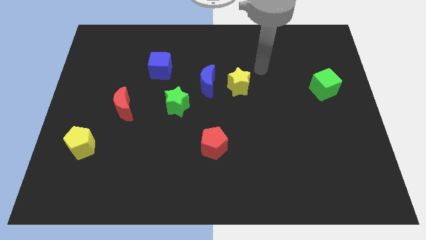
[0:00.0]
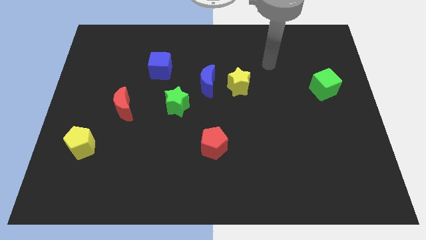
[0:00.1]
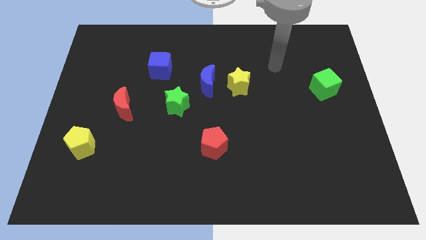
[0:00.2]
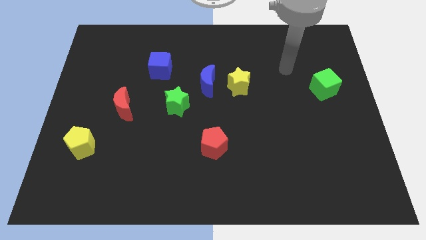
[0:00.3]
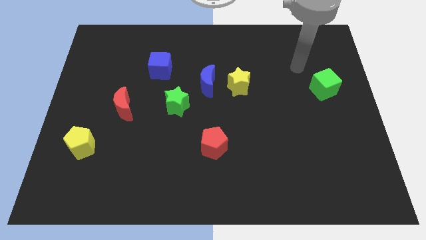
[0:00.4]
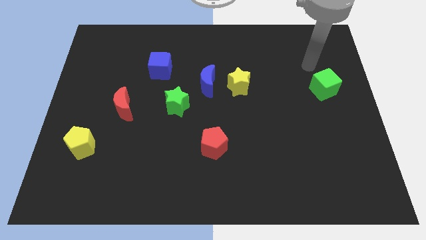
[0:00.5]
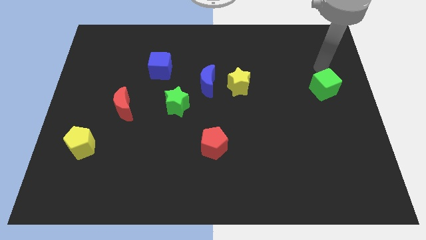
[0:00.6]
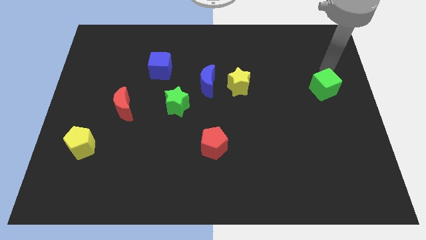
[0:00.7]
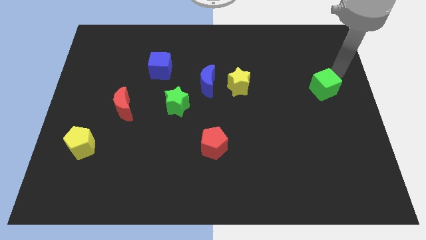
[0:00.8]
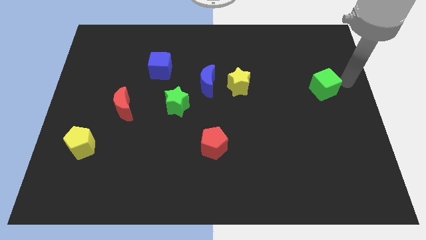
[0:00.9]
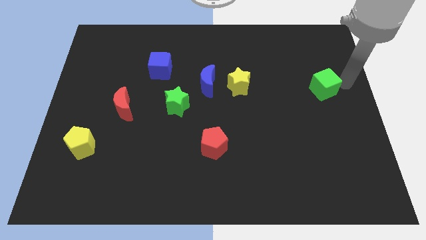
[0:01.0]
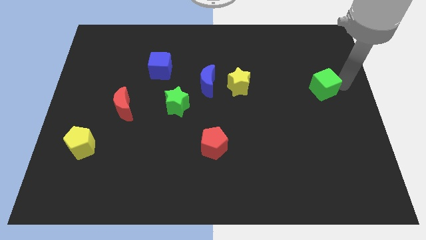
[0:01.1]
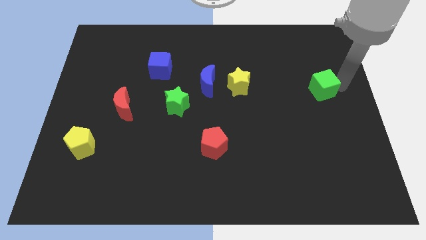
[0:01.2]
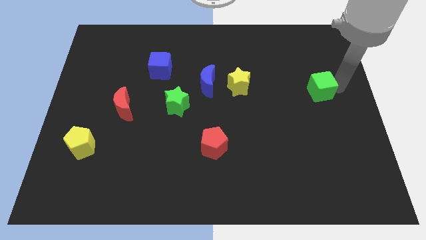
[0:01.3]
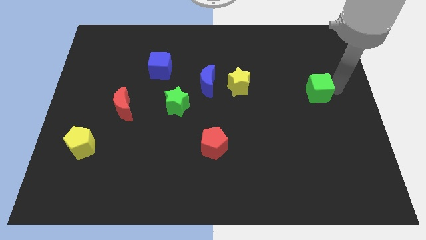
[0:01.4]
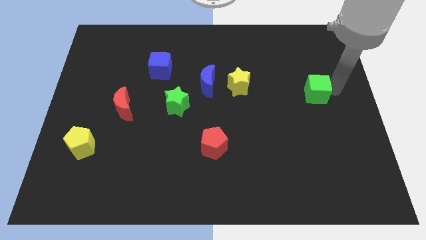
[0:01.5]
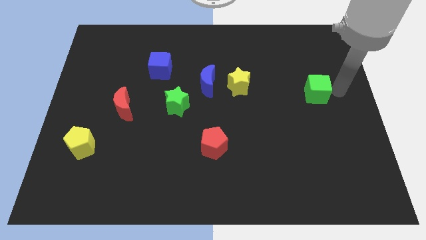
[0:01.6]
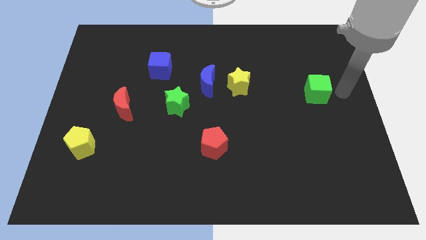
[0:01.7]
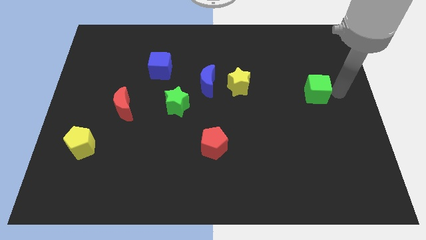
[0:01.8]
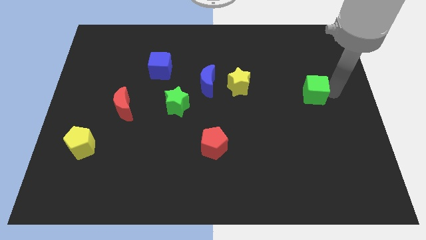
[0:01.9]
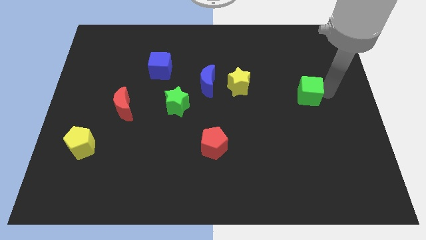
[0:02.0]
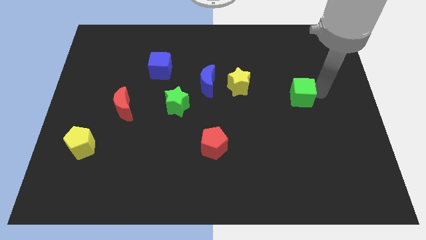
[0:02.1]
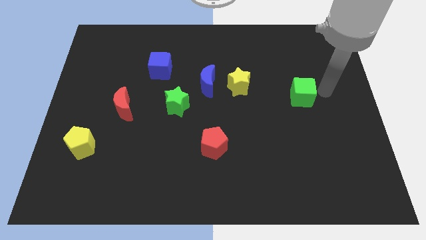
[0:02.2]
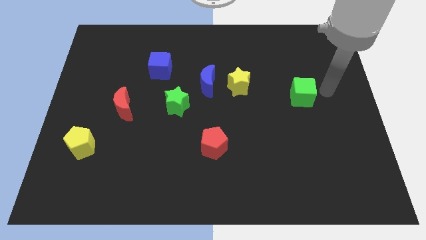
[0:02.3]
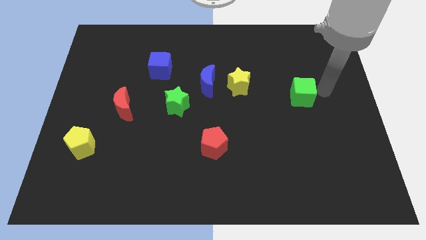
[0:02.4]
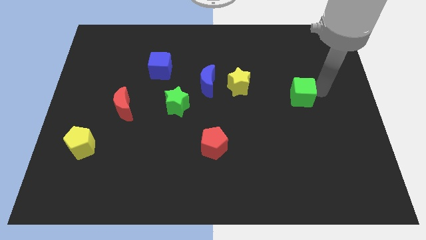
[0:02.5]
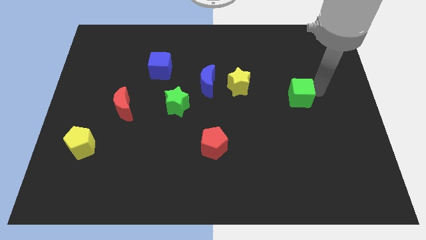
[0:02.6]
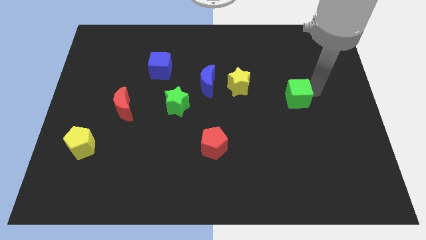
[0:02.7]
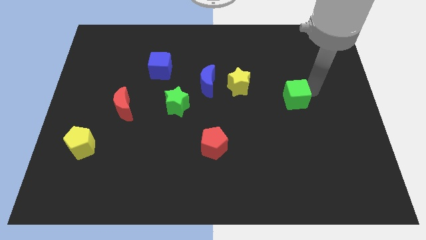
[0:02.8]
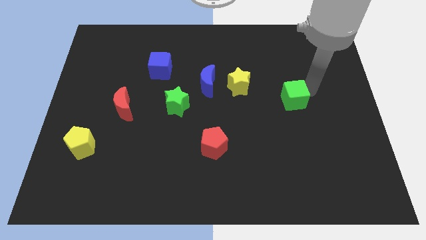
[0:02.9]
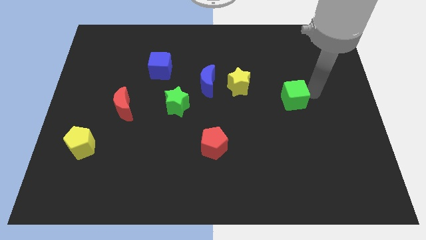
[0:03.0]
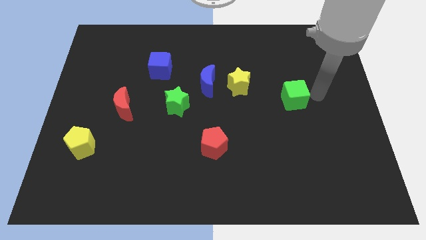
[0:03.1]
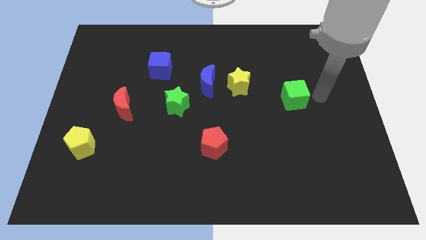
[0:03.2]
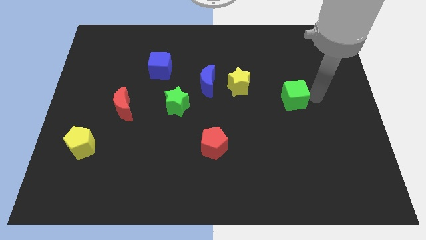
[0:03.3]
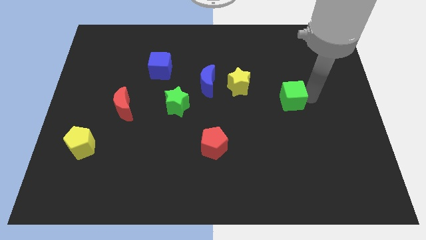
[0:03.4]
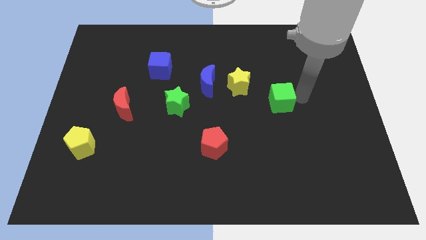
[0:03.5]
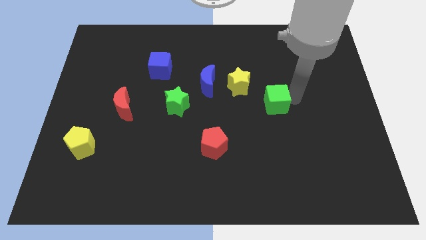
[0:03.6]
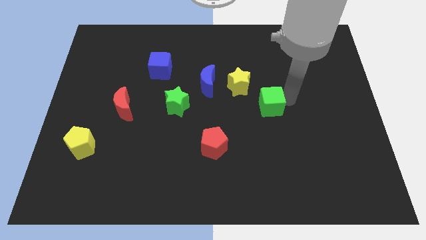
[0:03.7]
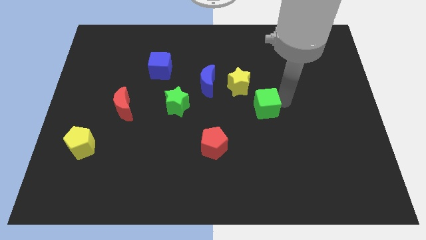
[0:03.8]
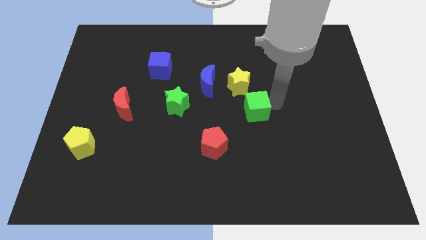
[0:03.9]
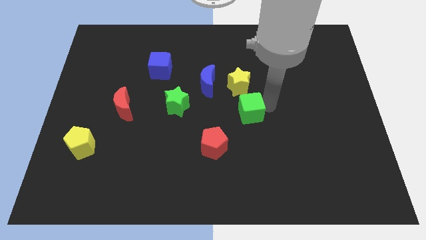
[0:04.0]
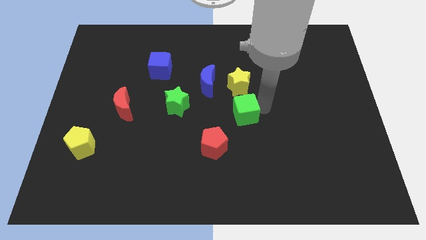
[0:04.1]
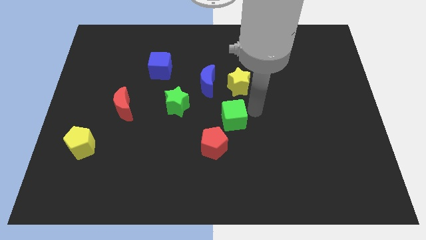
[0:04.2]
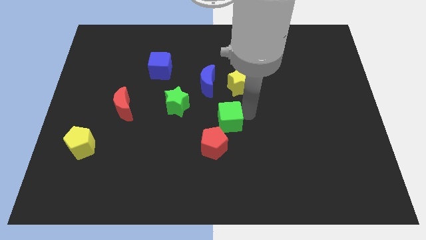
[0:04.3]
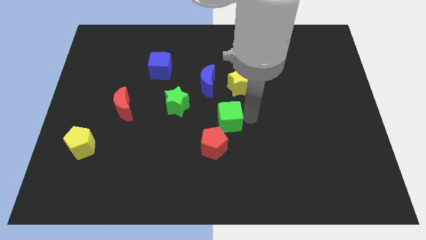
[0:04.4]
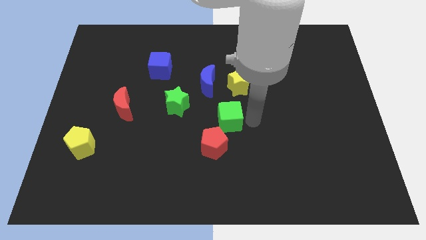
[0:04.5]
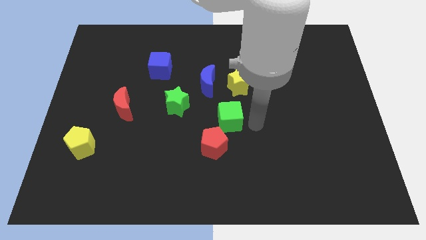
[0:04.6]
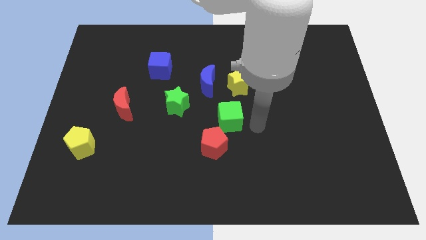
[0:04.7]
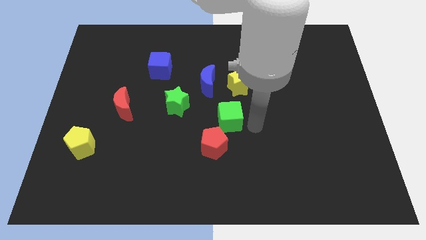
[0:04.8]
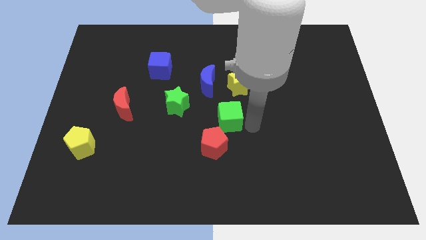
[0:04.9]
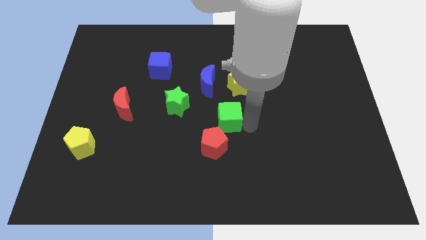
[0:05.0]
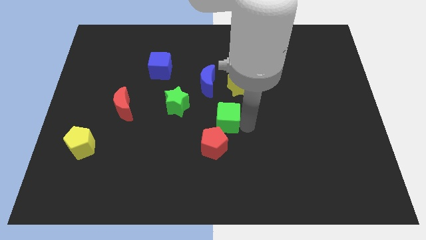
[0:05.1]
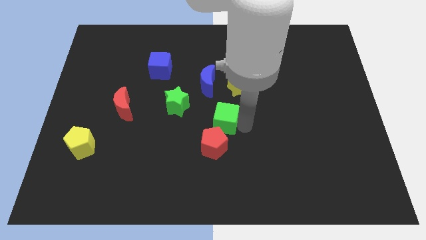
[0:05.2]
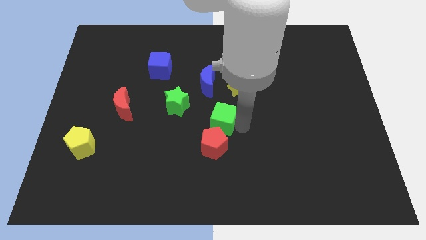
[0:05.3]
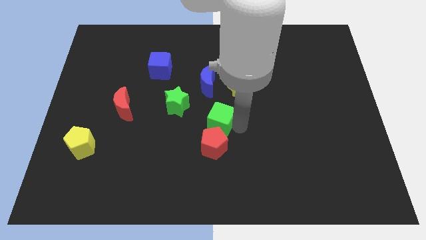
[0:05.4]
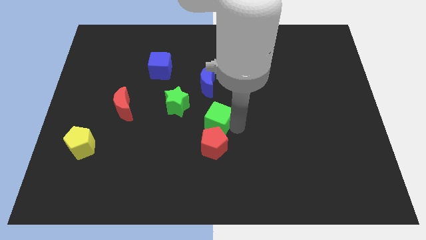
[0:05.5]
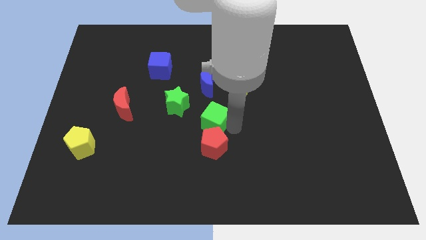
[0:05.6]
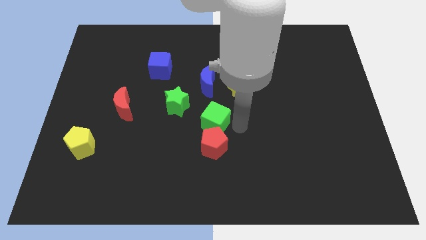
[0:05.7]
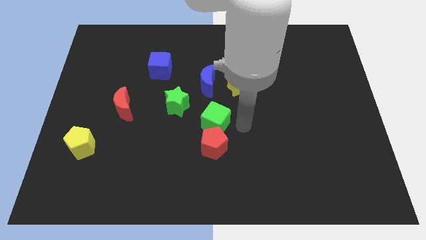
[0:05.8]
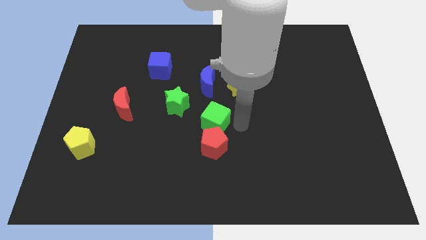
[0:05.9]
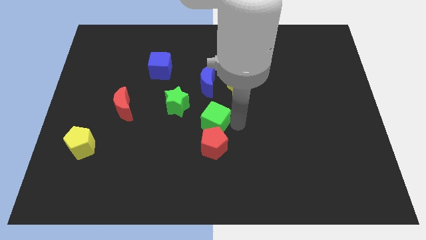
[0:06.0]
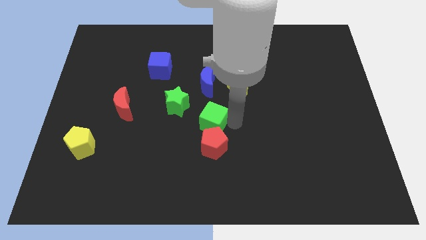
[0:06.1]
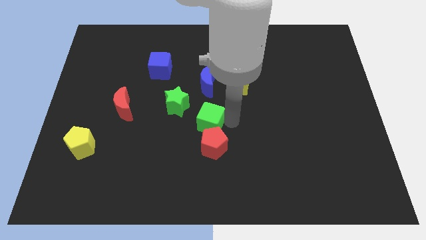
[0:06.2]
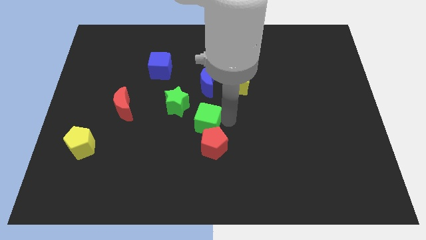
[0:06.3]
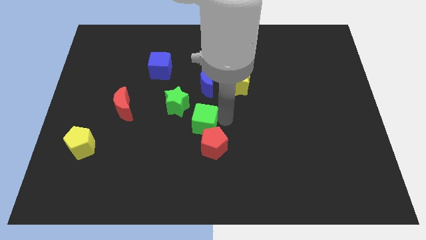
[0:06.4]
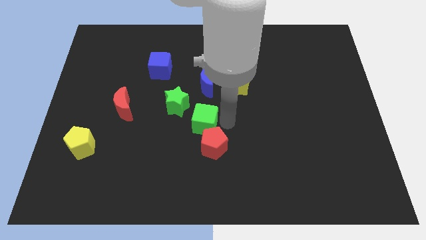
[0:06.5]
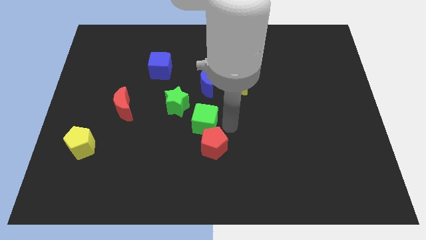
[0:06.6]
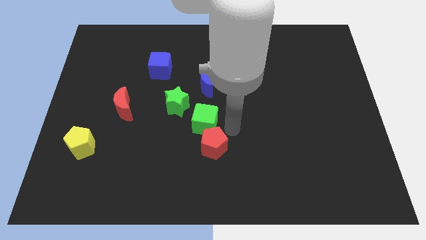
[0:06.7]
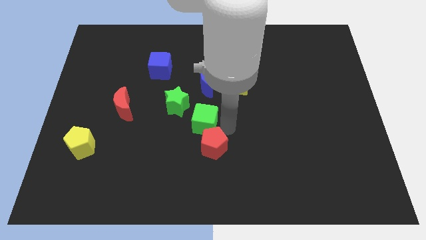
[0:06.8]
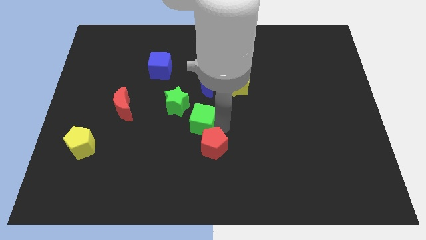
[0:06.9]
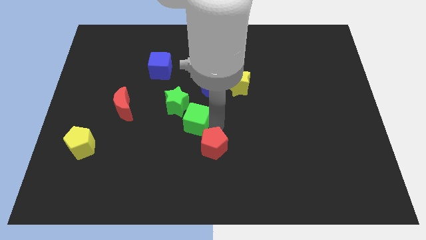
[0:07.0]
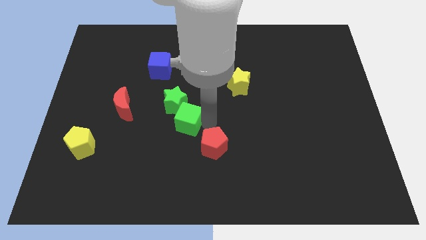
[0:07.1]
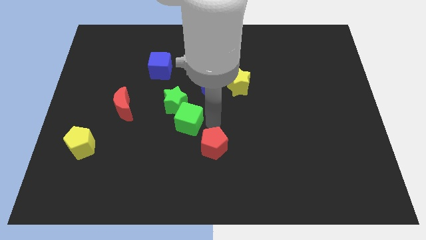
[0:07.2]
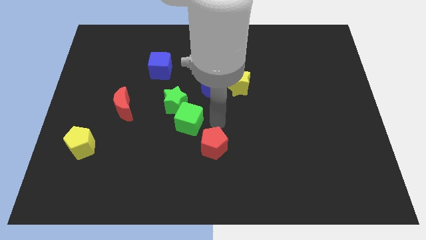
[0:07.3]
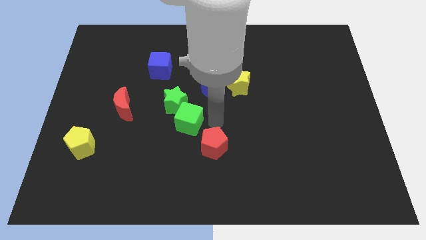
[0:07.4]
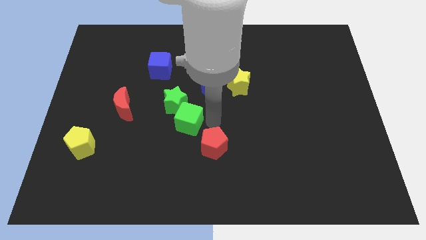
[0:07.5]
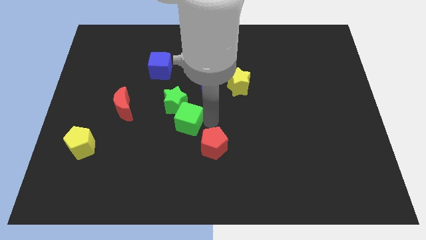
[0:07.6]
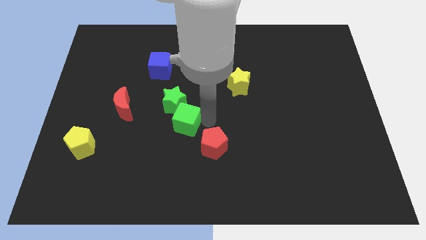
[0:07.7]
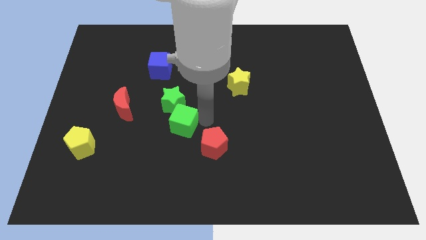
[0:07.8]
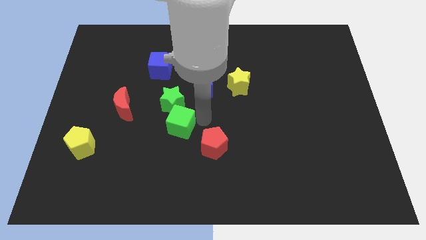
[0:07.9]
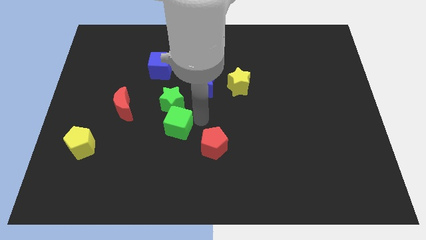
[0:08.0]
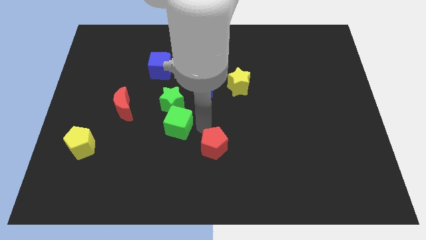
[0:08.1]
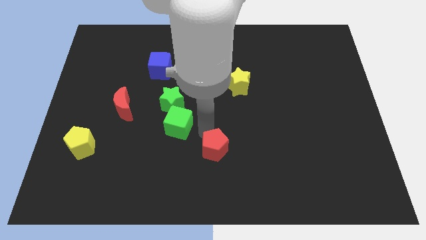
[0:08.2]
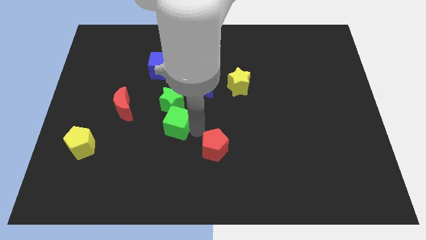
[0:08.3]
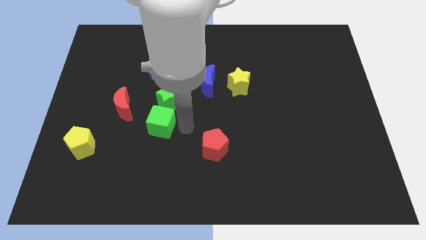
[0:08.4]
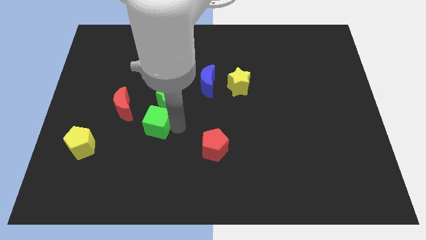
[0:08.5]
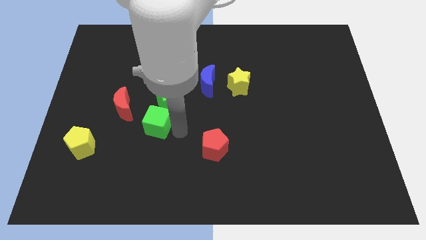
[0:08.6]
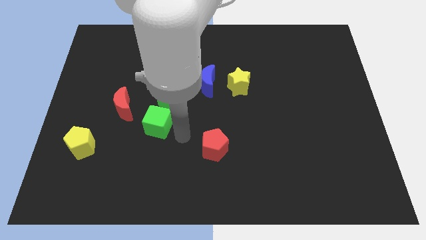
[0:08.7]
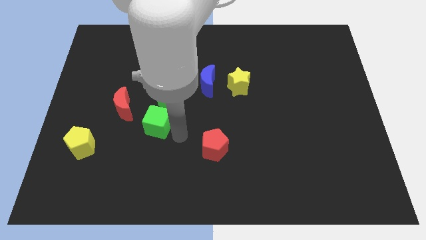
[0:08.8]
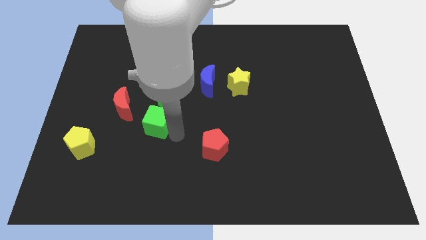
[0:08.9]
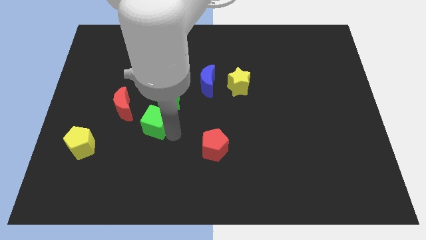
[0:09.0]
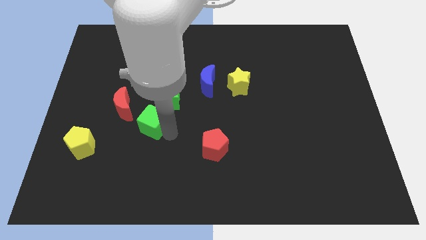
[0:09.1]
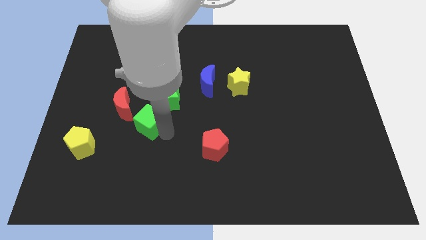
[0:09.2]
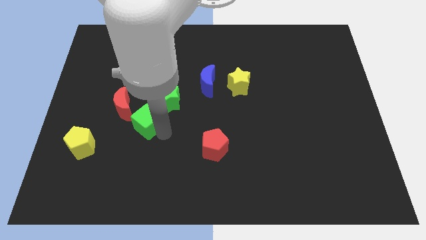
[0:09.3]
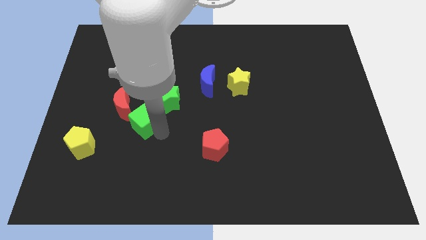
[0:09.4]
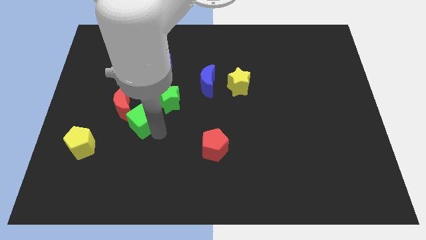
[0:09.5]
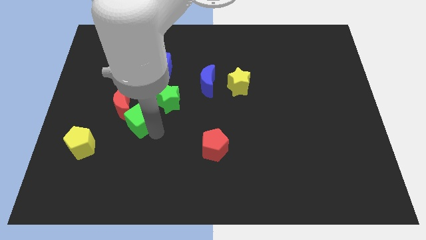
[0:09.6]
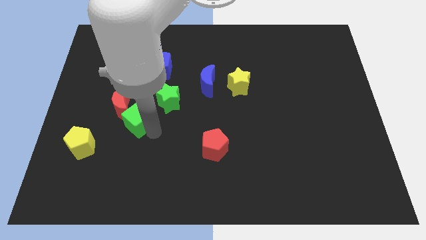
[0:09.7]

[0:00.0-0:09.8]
slide the green cube next to the red moon
